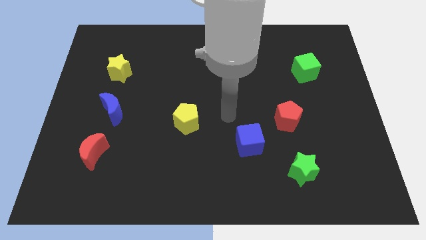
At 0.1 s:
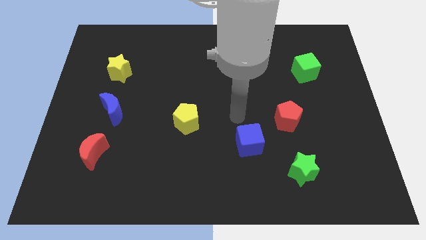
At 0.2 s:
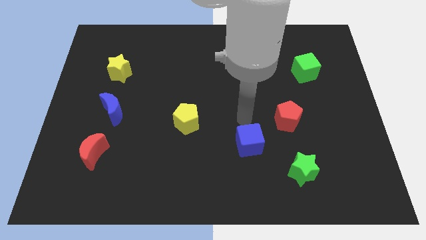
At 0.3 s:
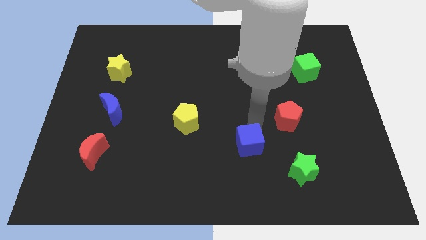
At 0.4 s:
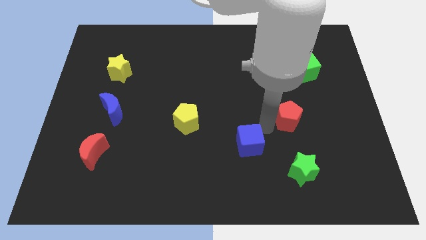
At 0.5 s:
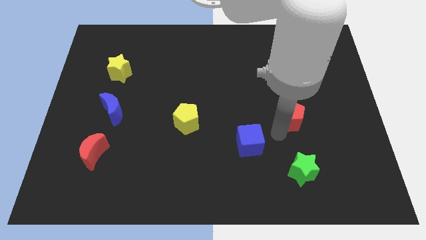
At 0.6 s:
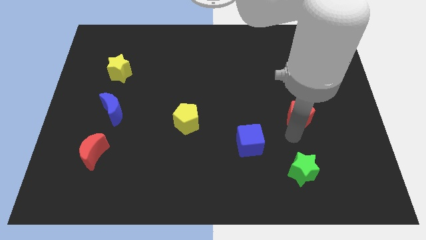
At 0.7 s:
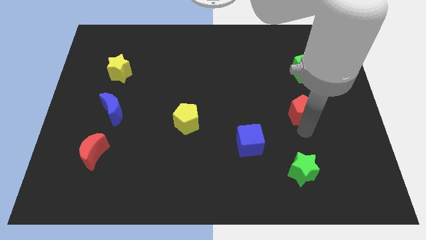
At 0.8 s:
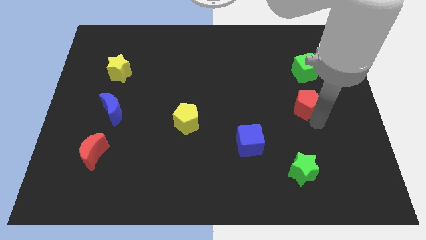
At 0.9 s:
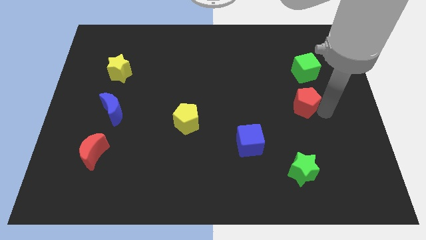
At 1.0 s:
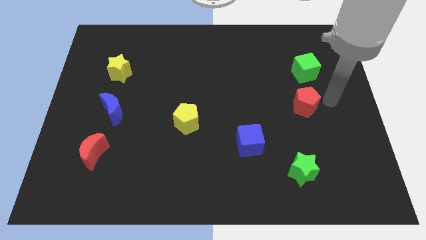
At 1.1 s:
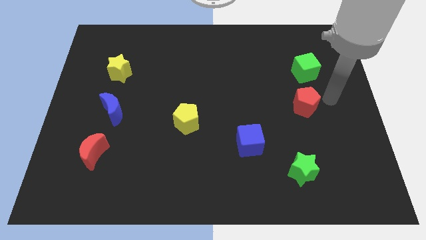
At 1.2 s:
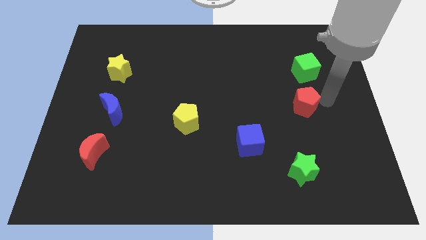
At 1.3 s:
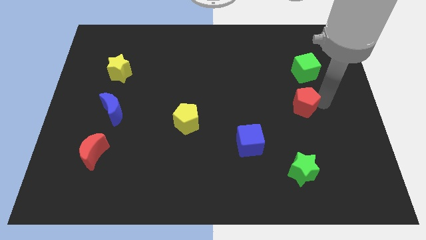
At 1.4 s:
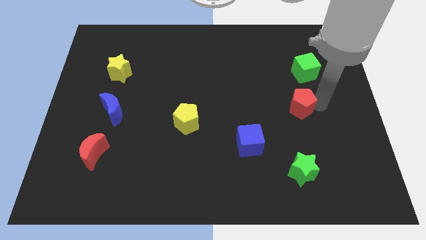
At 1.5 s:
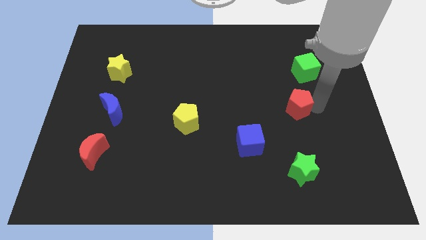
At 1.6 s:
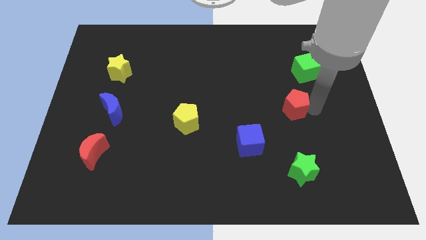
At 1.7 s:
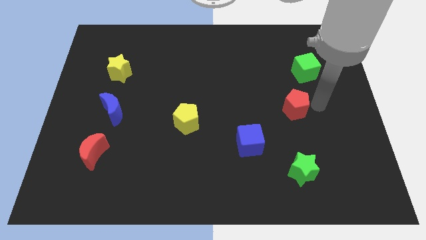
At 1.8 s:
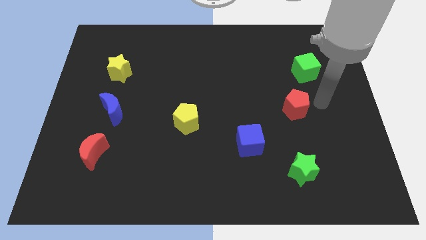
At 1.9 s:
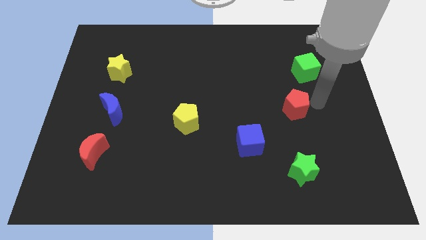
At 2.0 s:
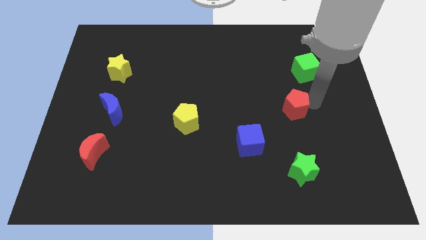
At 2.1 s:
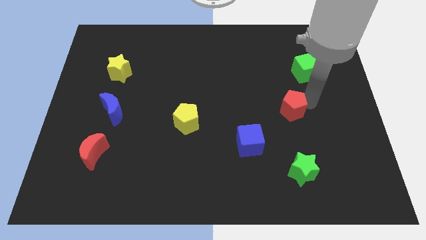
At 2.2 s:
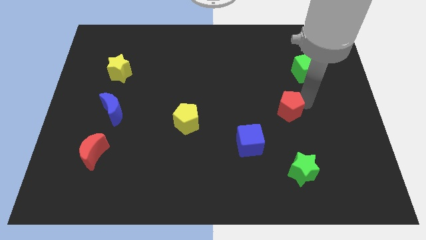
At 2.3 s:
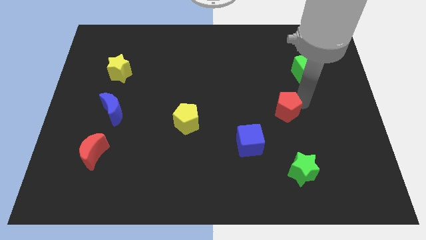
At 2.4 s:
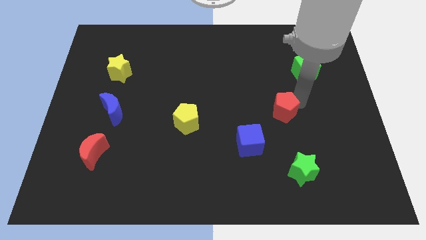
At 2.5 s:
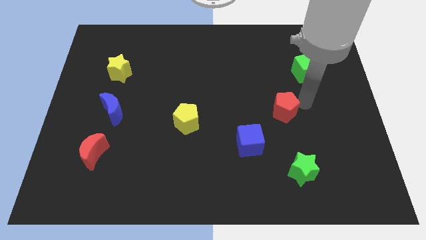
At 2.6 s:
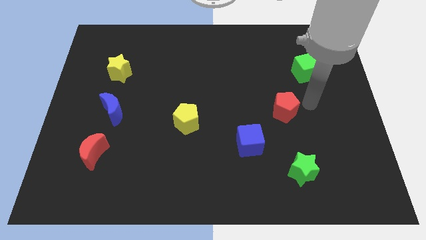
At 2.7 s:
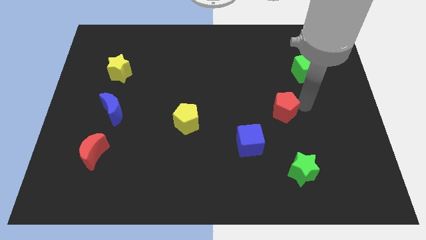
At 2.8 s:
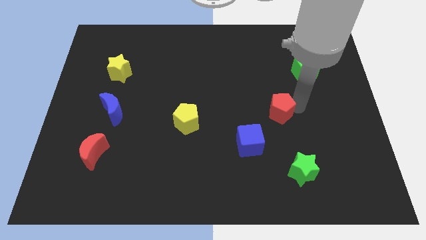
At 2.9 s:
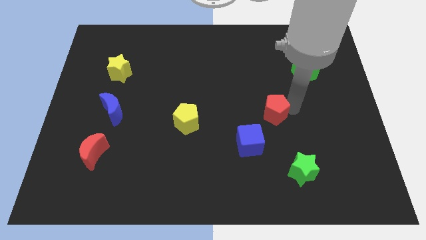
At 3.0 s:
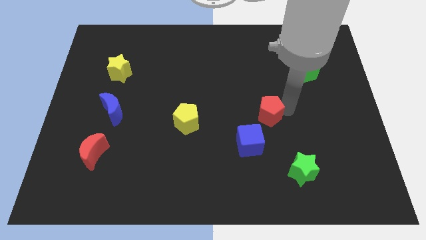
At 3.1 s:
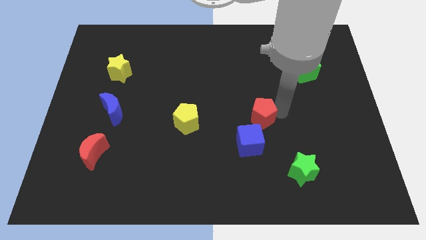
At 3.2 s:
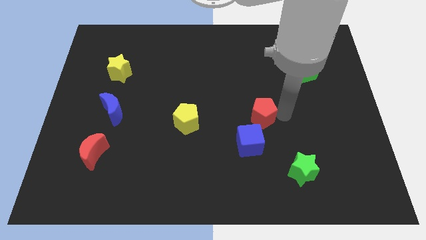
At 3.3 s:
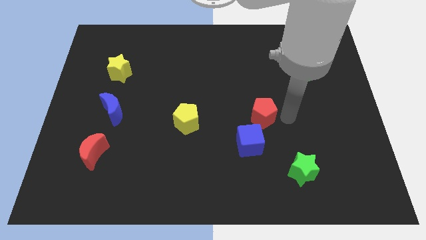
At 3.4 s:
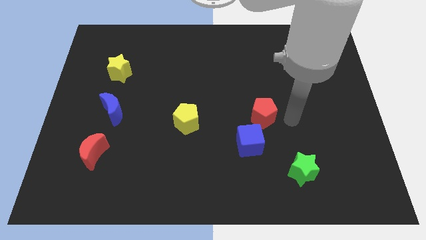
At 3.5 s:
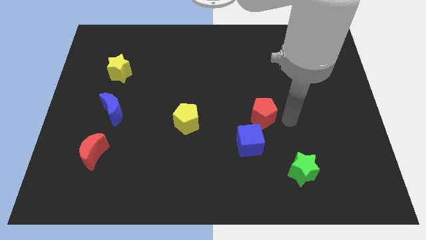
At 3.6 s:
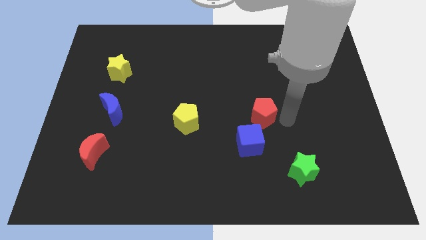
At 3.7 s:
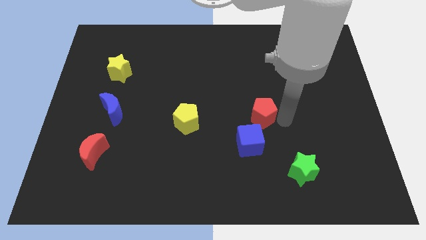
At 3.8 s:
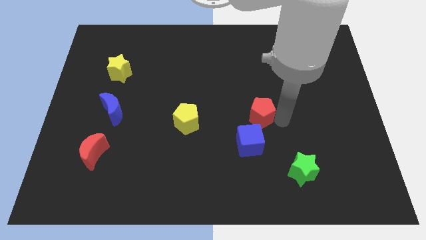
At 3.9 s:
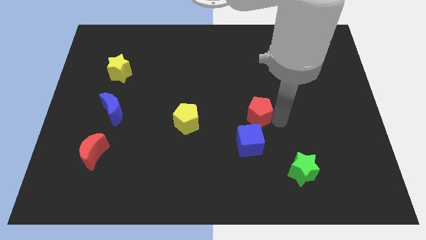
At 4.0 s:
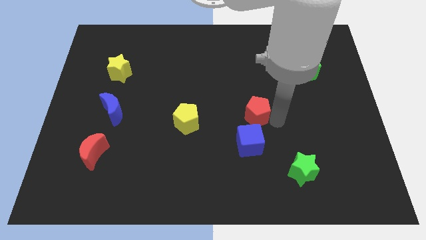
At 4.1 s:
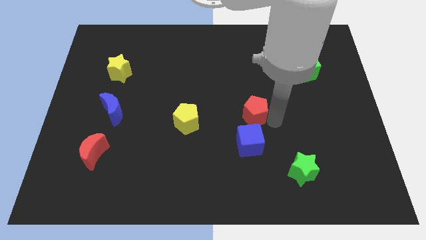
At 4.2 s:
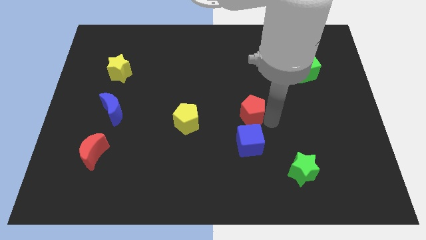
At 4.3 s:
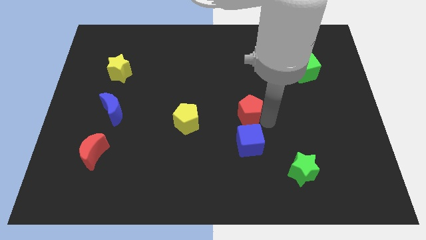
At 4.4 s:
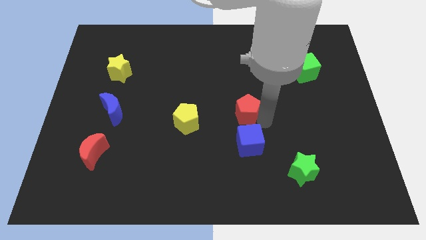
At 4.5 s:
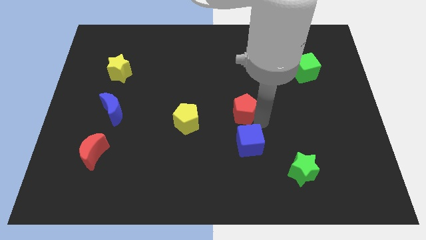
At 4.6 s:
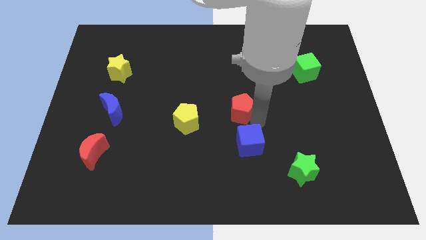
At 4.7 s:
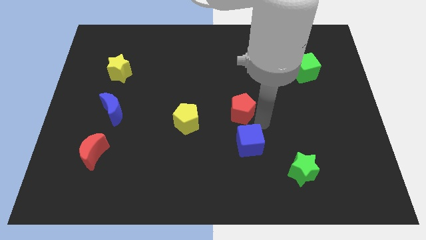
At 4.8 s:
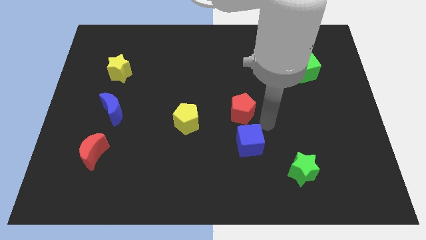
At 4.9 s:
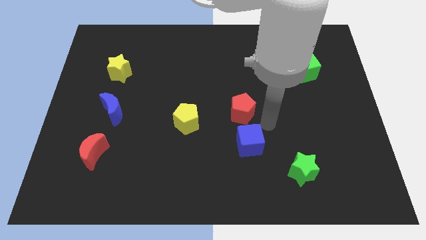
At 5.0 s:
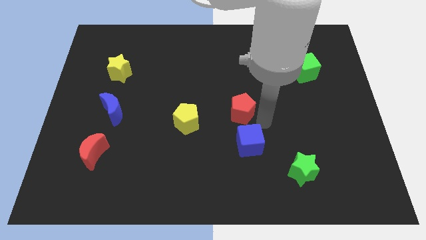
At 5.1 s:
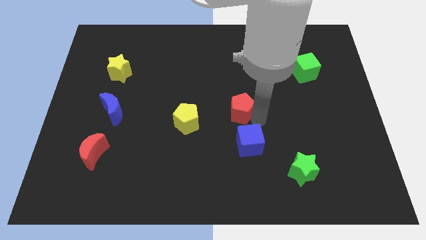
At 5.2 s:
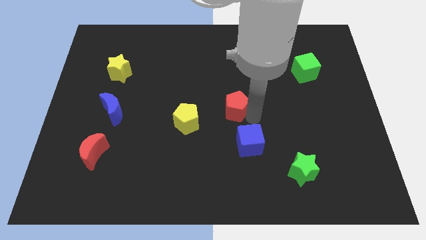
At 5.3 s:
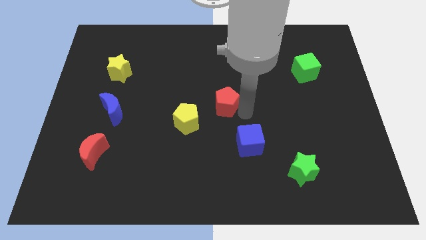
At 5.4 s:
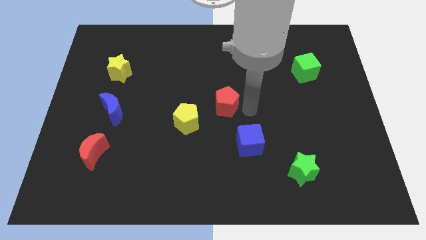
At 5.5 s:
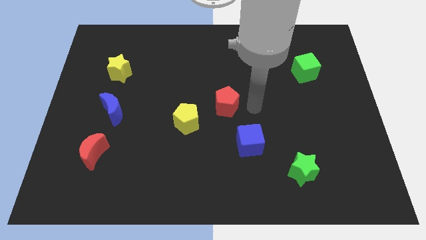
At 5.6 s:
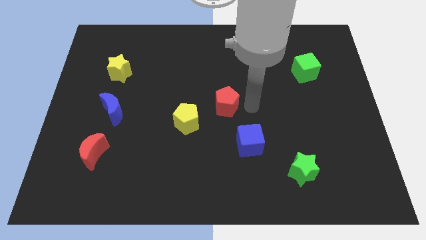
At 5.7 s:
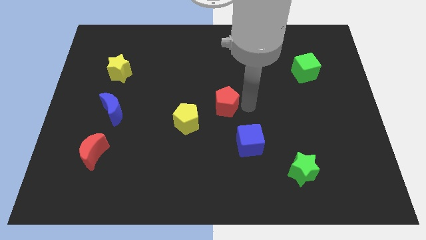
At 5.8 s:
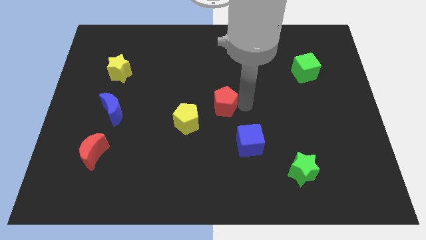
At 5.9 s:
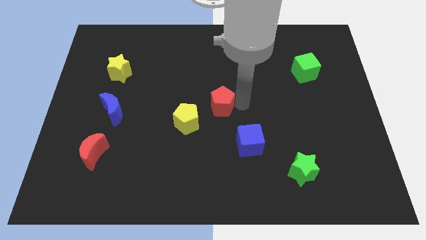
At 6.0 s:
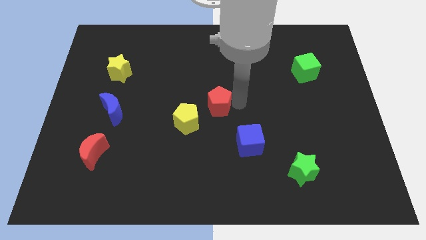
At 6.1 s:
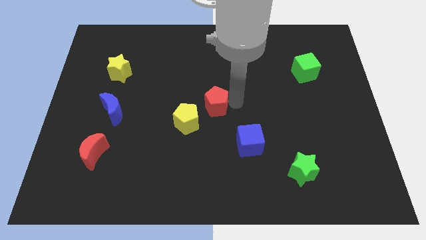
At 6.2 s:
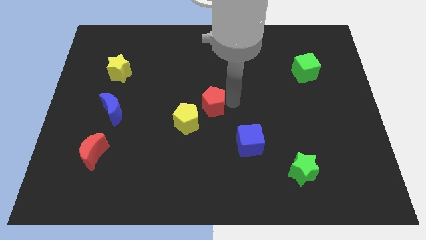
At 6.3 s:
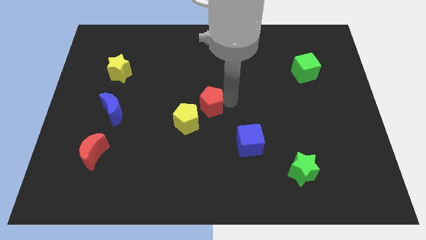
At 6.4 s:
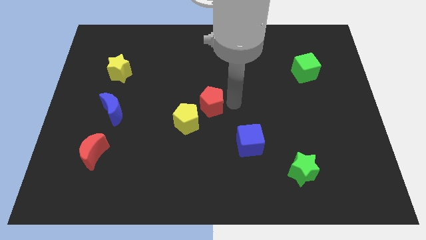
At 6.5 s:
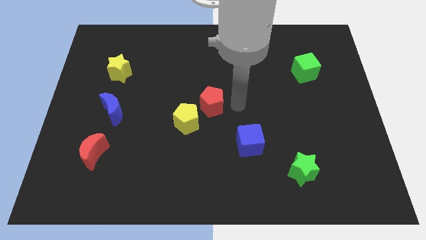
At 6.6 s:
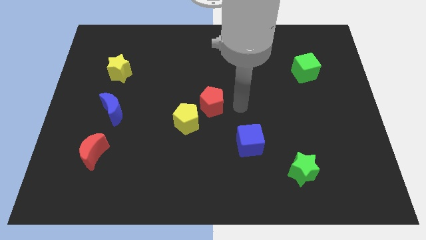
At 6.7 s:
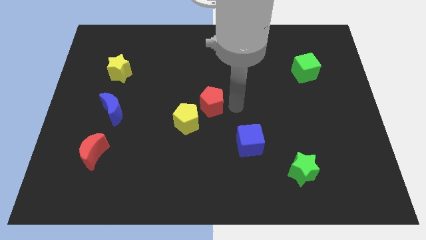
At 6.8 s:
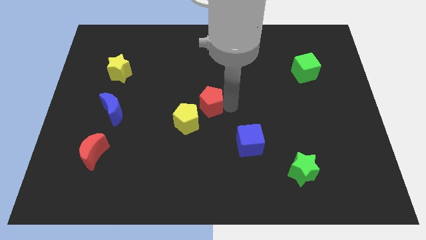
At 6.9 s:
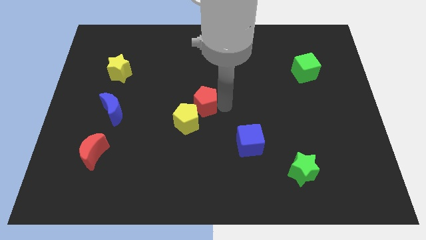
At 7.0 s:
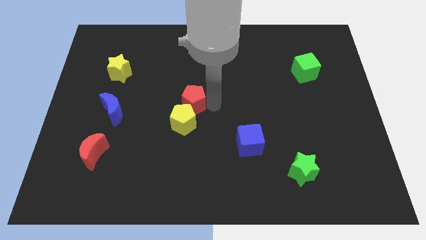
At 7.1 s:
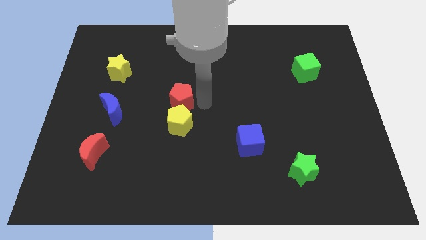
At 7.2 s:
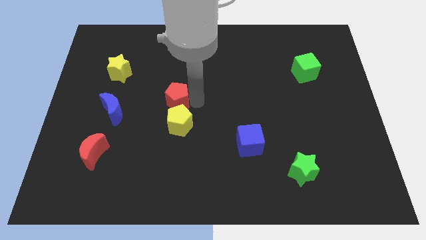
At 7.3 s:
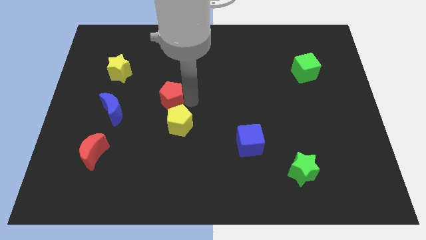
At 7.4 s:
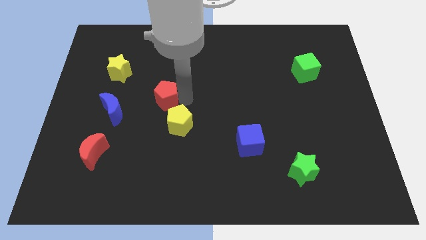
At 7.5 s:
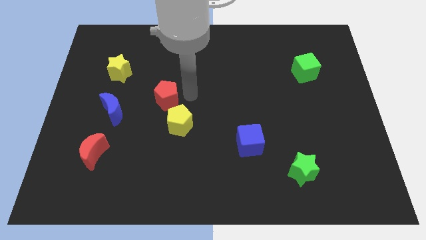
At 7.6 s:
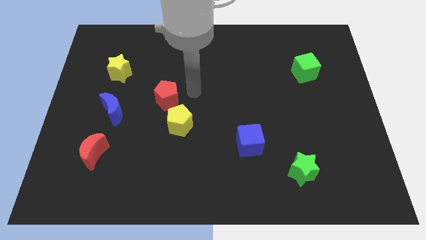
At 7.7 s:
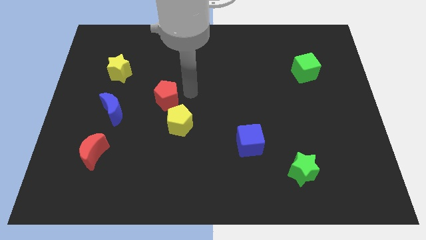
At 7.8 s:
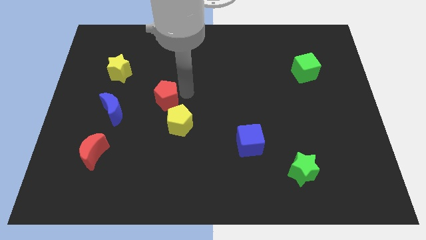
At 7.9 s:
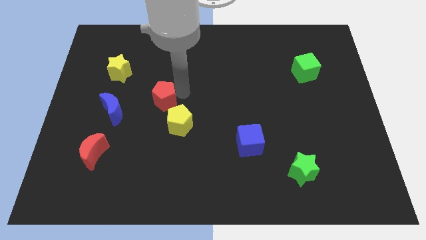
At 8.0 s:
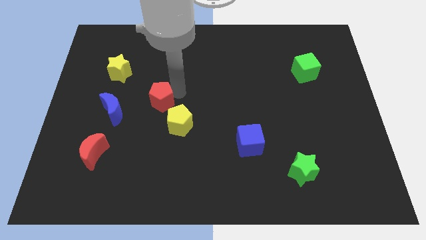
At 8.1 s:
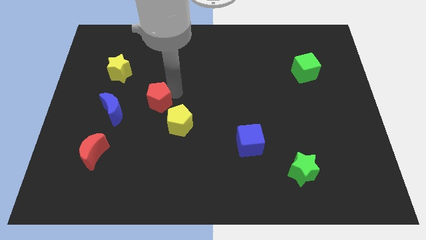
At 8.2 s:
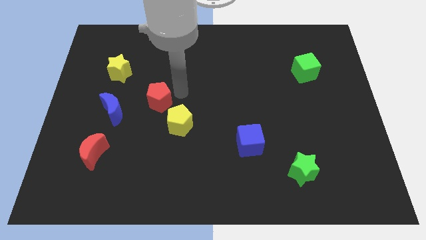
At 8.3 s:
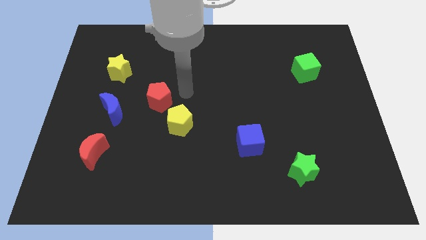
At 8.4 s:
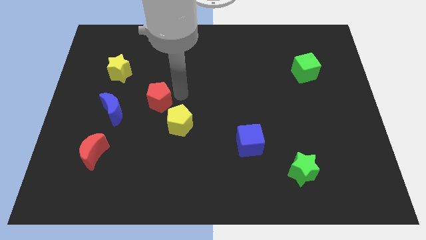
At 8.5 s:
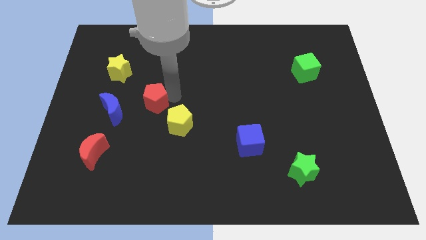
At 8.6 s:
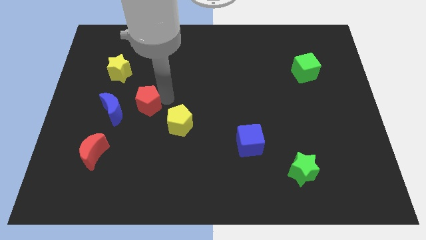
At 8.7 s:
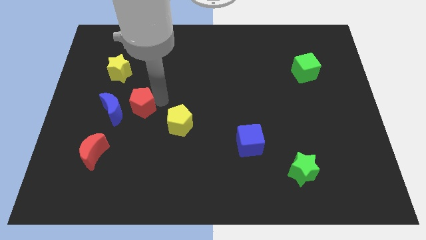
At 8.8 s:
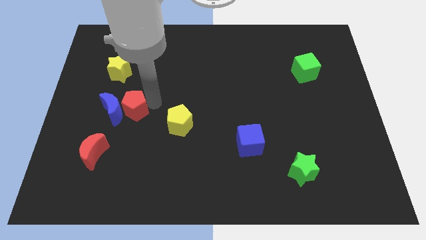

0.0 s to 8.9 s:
move the red pentagon to the blue moon
